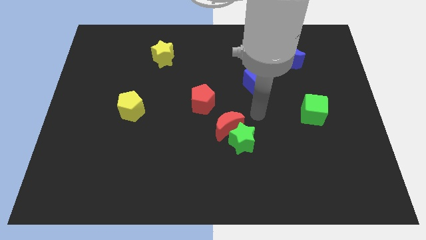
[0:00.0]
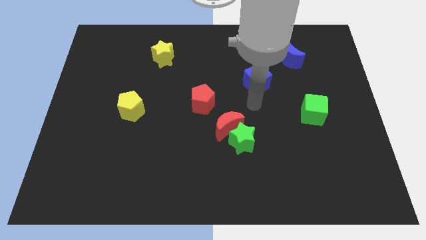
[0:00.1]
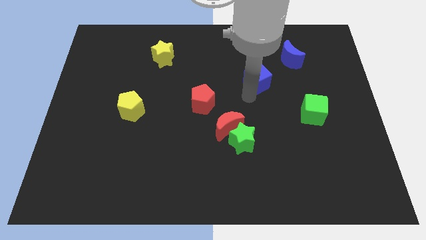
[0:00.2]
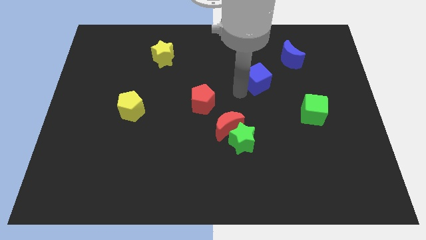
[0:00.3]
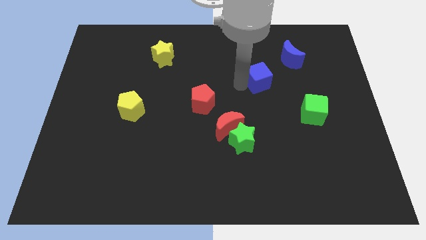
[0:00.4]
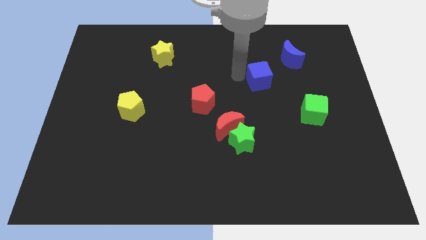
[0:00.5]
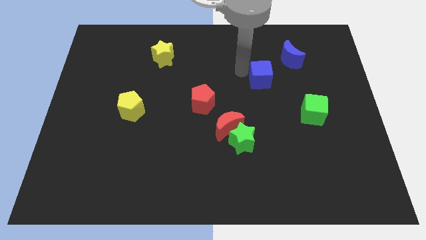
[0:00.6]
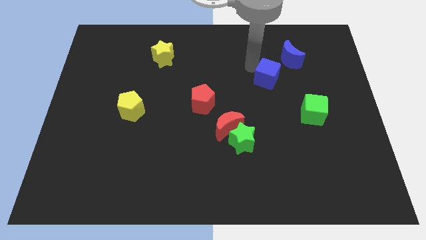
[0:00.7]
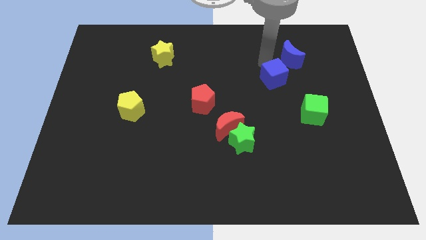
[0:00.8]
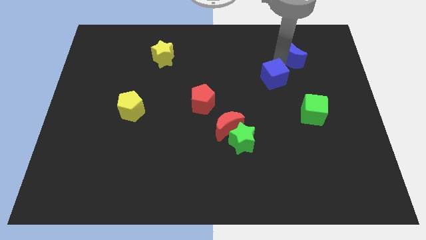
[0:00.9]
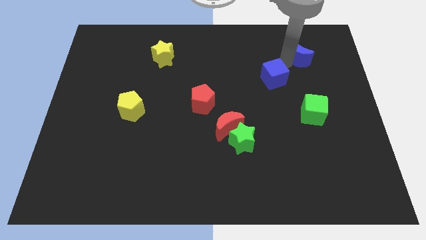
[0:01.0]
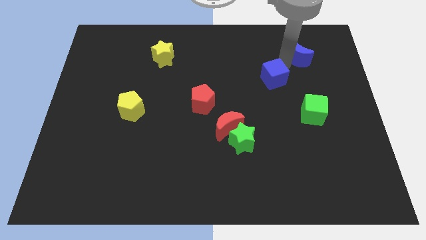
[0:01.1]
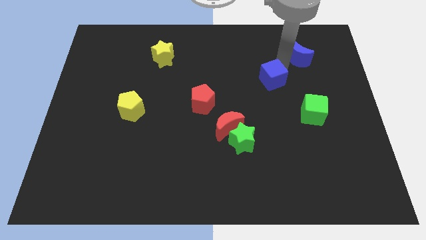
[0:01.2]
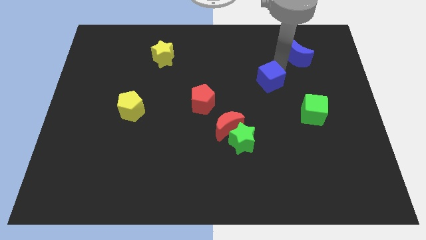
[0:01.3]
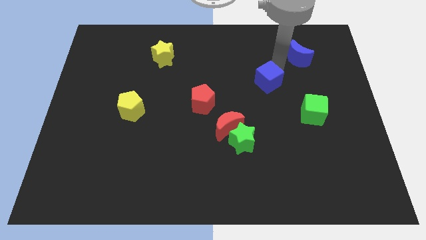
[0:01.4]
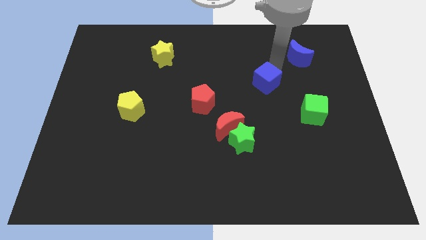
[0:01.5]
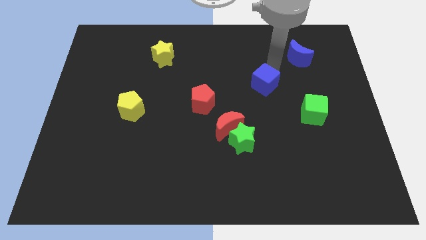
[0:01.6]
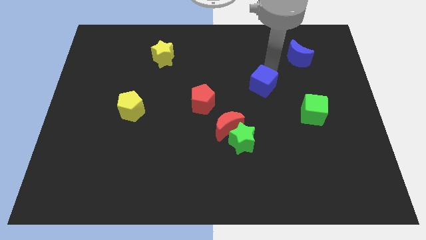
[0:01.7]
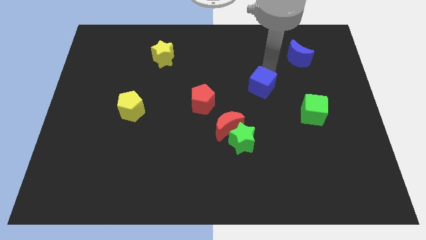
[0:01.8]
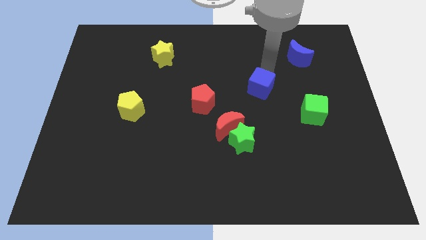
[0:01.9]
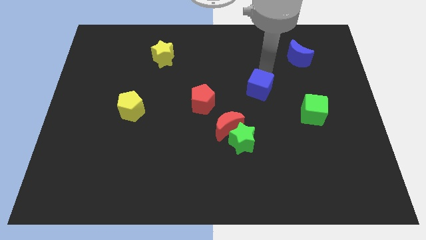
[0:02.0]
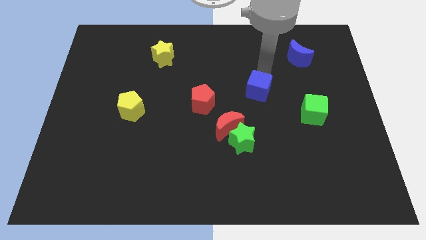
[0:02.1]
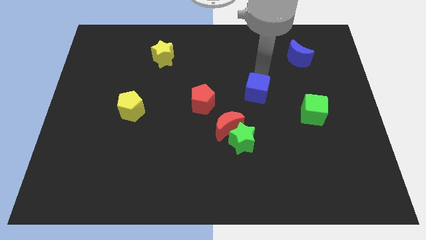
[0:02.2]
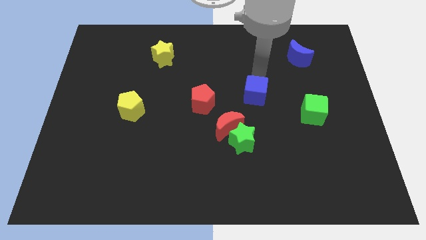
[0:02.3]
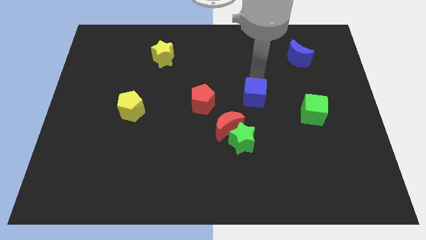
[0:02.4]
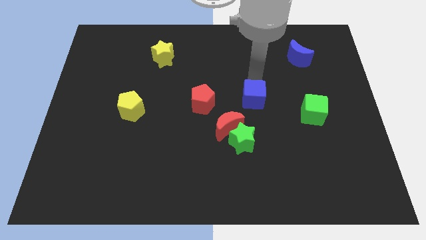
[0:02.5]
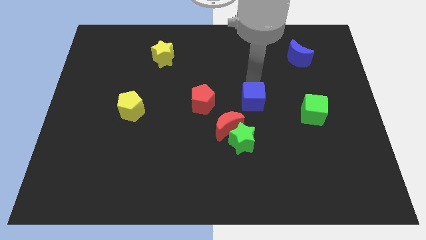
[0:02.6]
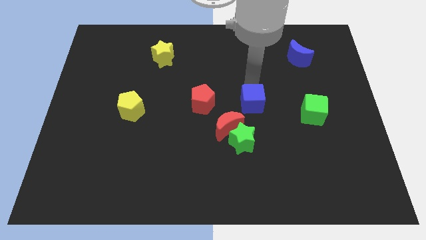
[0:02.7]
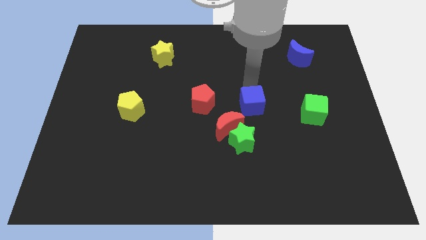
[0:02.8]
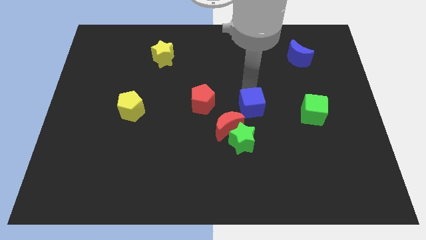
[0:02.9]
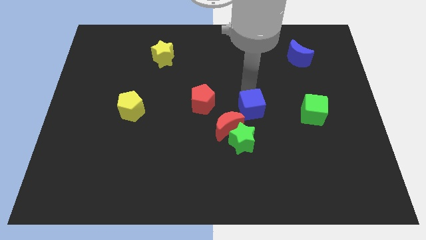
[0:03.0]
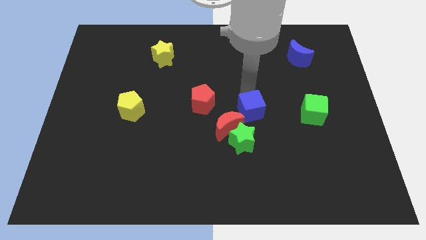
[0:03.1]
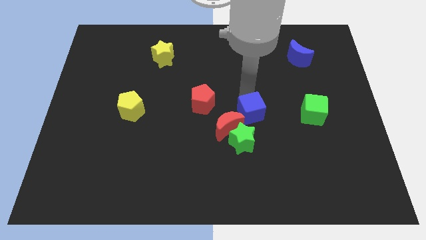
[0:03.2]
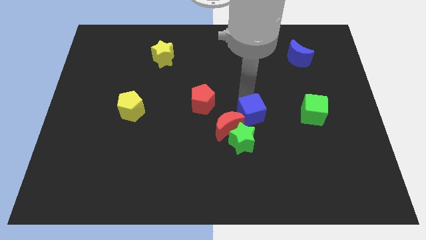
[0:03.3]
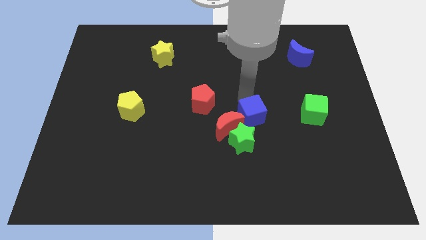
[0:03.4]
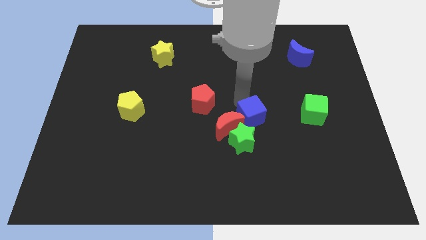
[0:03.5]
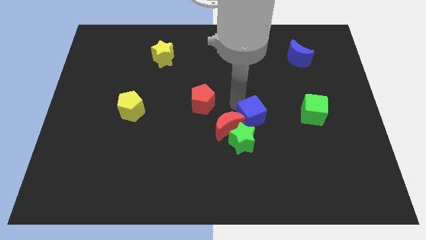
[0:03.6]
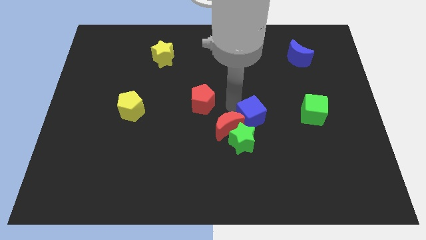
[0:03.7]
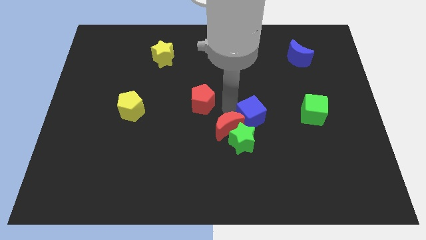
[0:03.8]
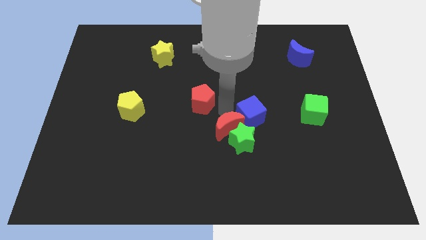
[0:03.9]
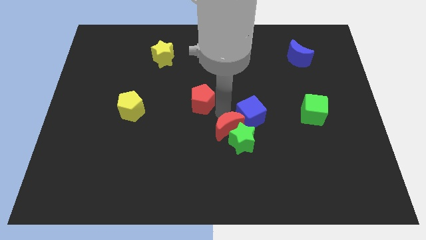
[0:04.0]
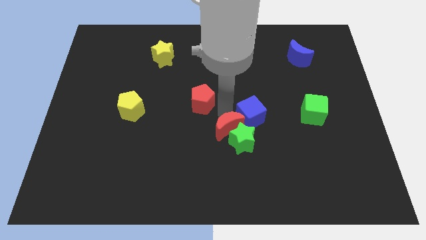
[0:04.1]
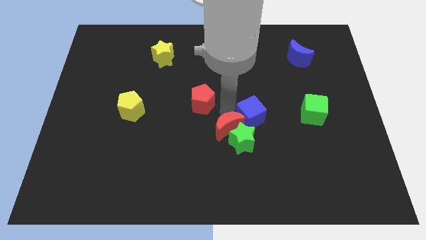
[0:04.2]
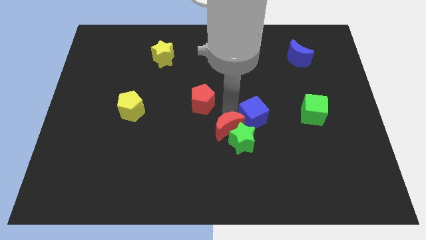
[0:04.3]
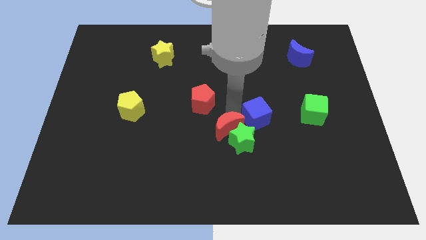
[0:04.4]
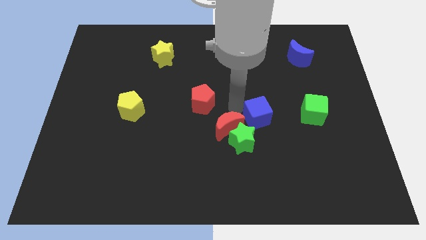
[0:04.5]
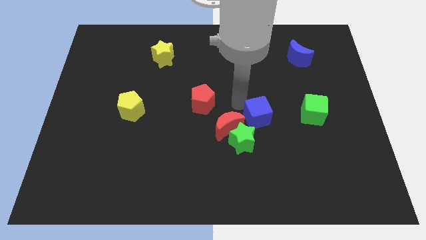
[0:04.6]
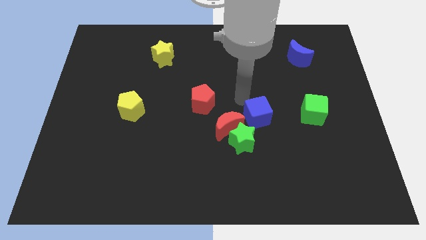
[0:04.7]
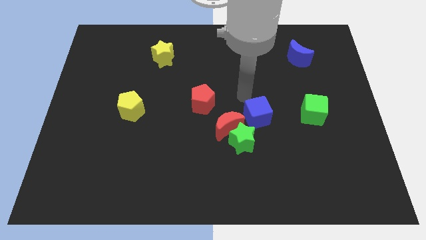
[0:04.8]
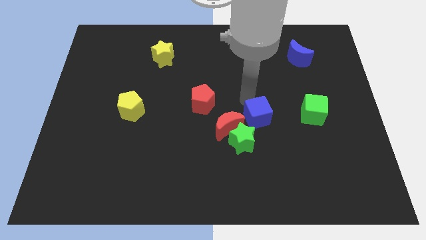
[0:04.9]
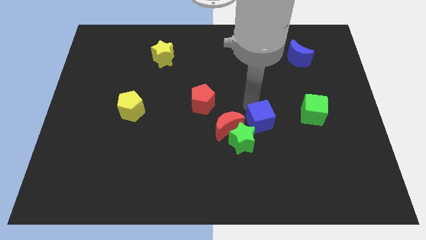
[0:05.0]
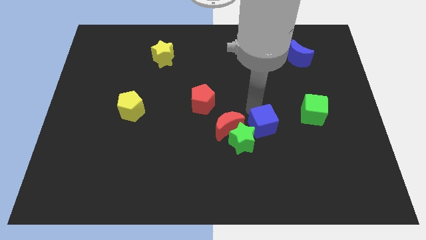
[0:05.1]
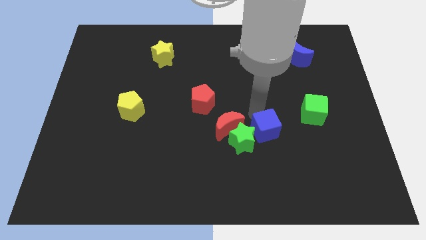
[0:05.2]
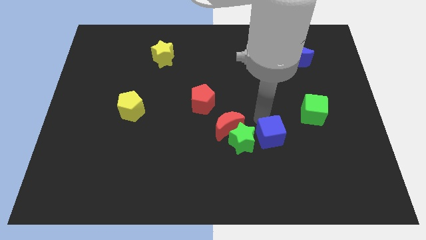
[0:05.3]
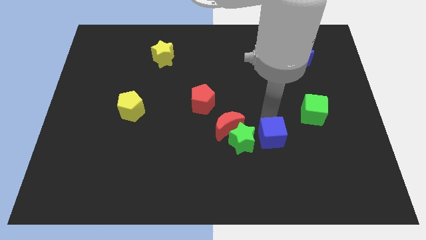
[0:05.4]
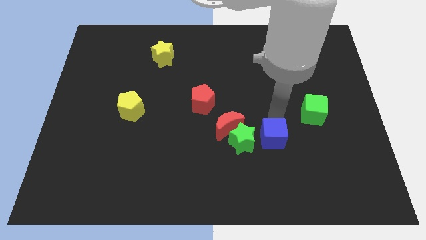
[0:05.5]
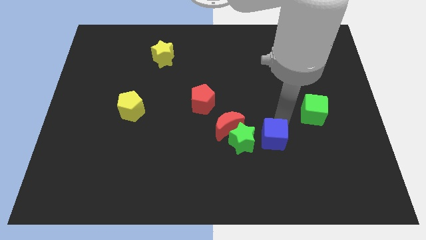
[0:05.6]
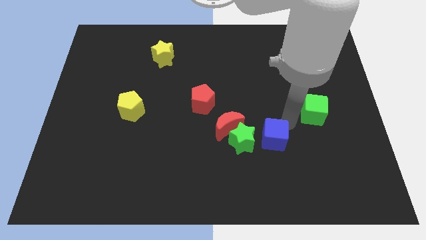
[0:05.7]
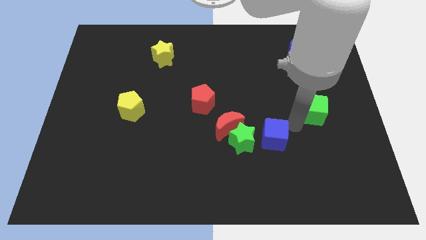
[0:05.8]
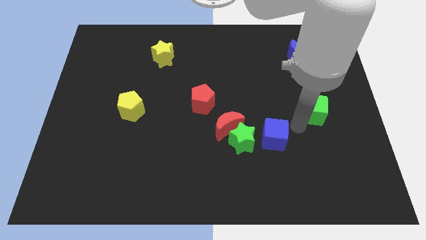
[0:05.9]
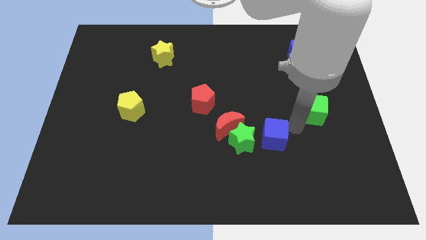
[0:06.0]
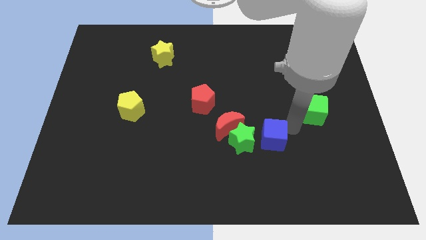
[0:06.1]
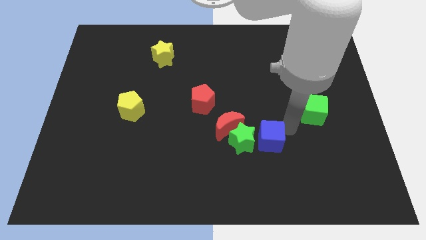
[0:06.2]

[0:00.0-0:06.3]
slide the blue cube to the bottom right of the red moon
